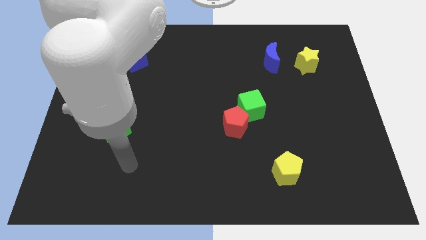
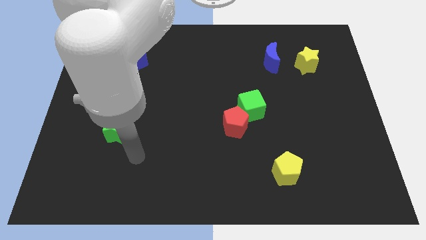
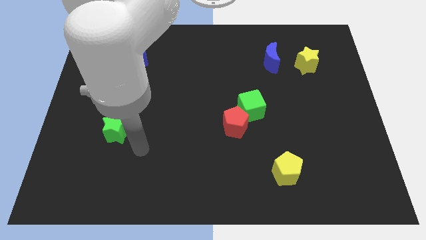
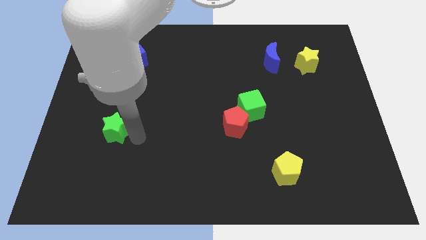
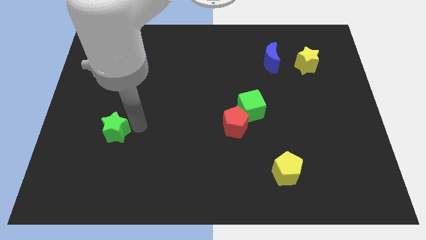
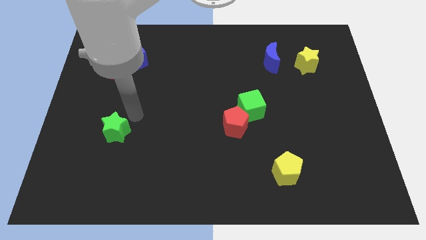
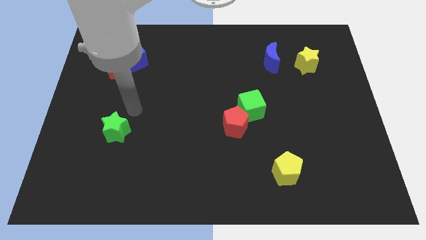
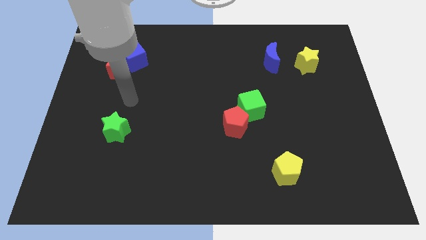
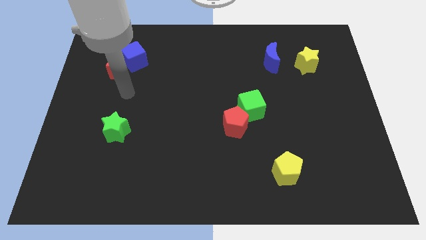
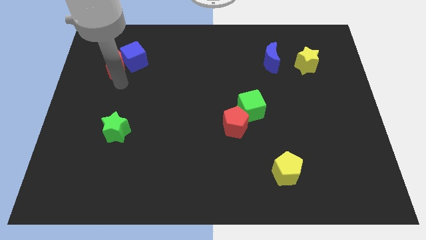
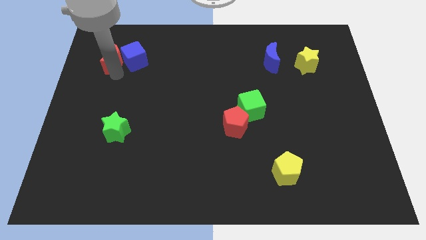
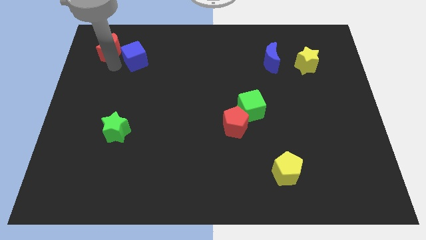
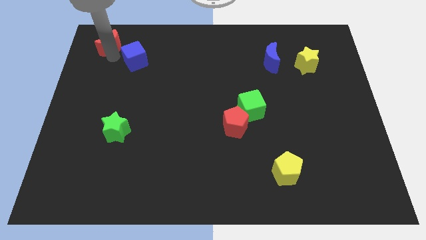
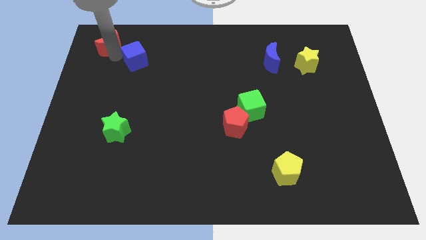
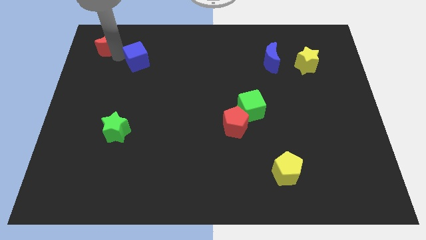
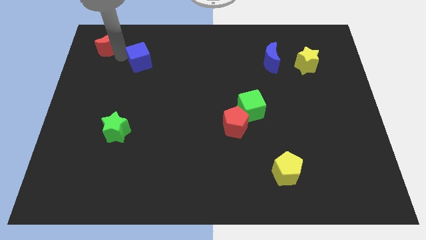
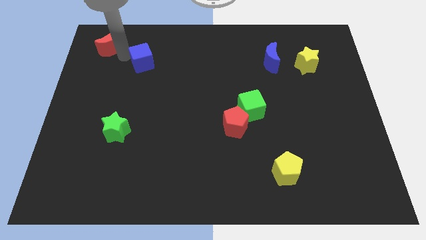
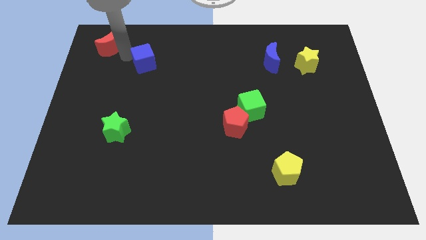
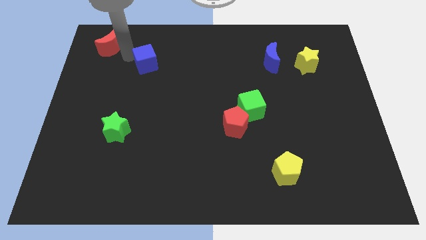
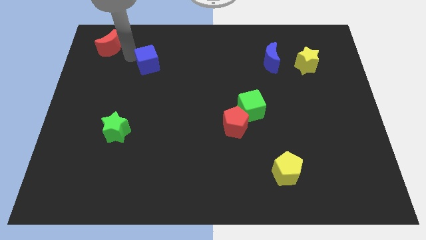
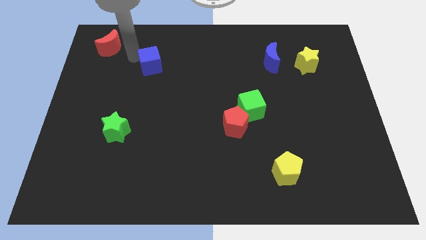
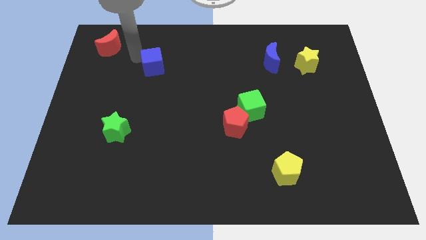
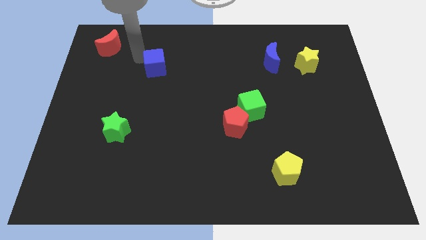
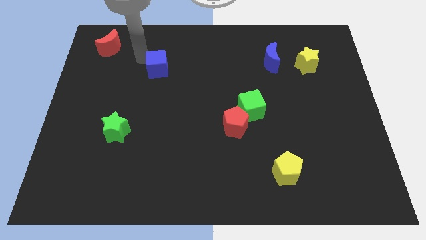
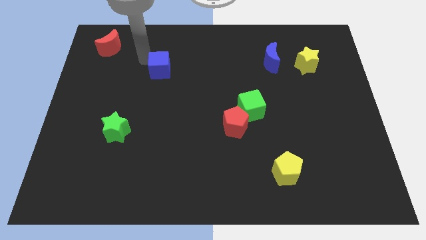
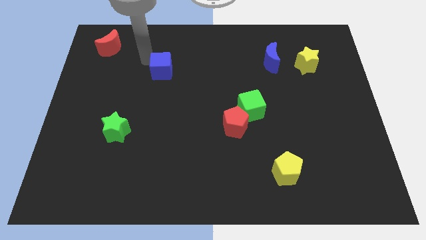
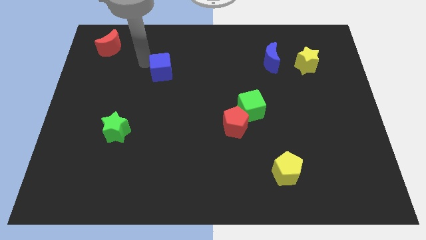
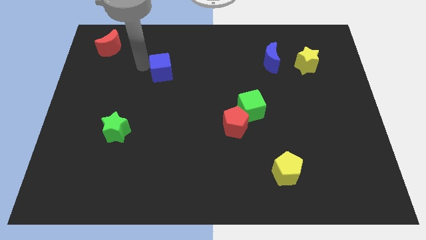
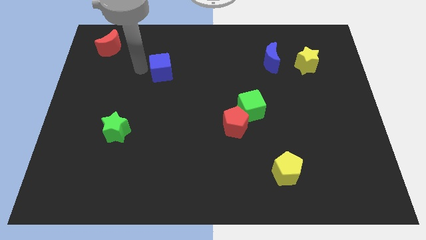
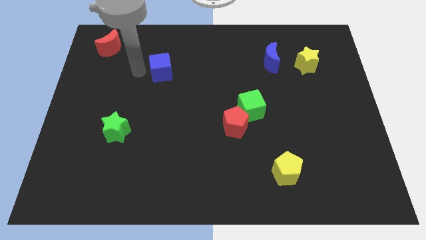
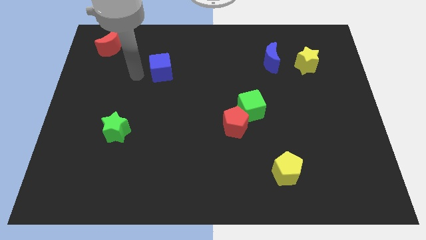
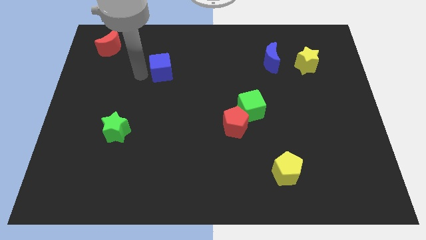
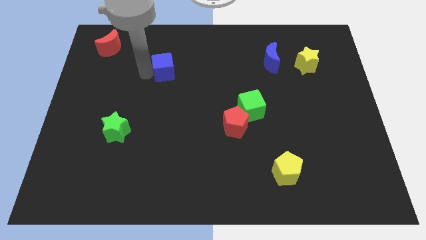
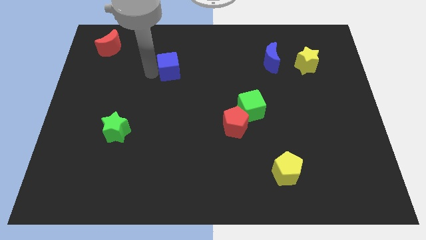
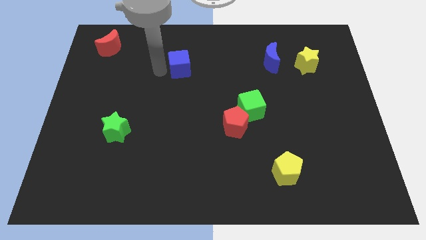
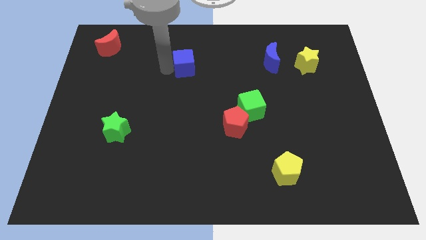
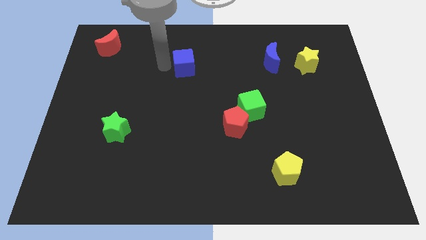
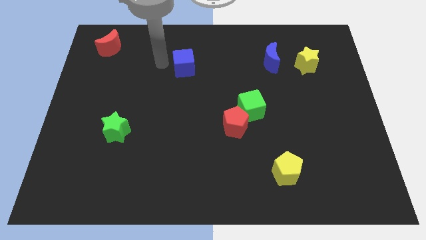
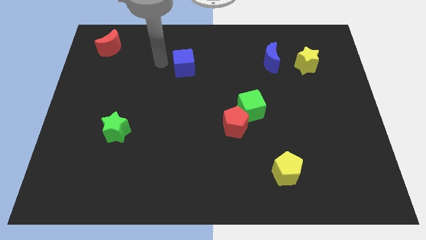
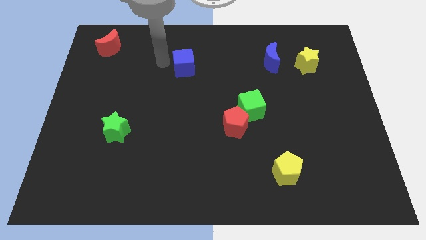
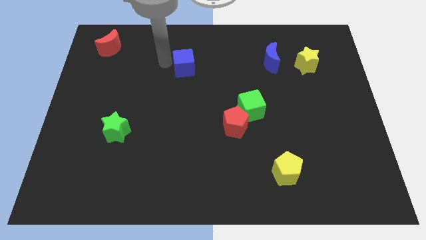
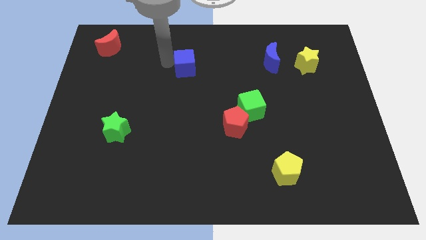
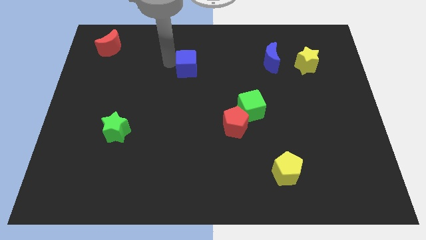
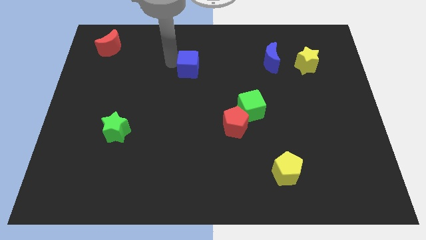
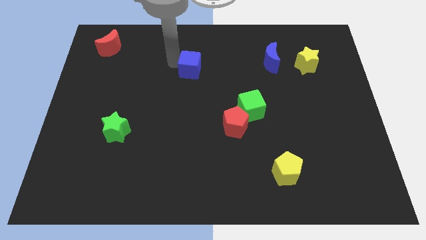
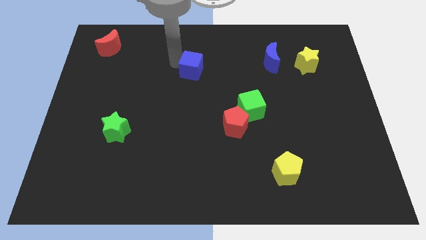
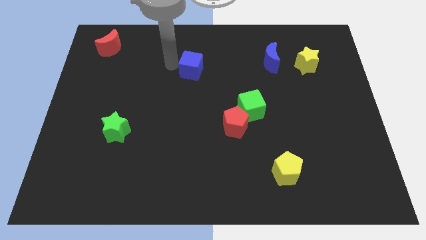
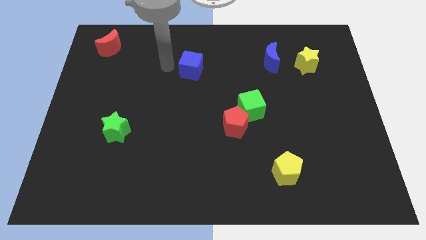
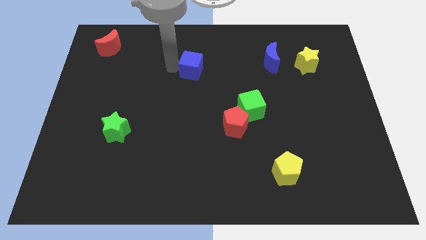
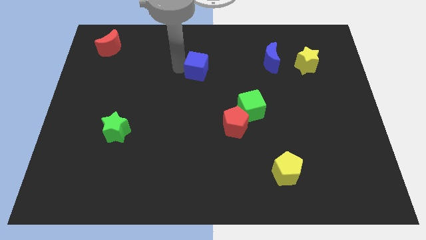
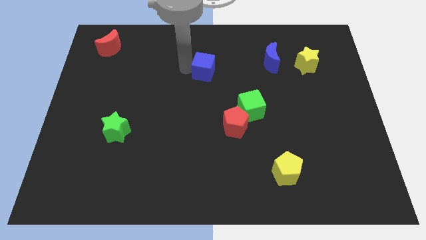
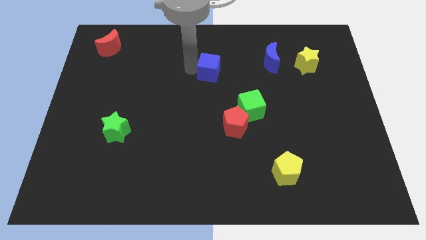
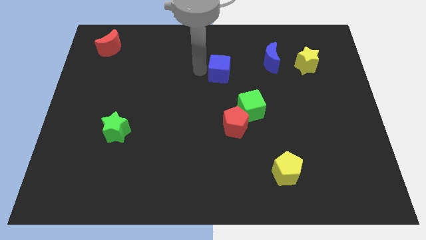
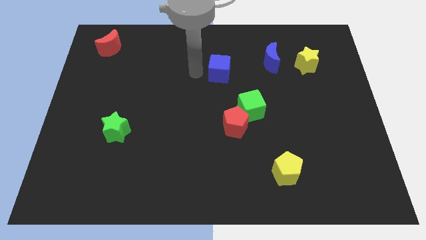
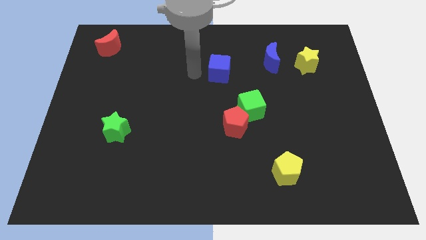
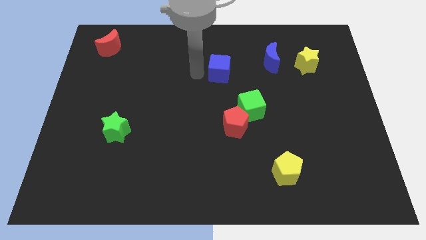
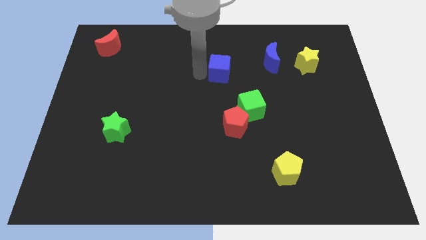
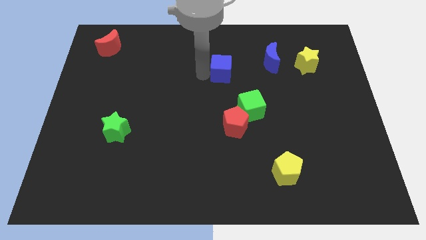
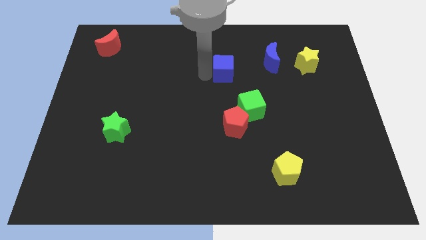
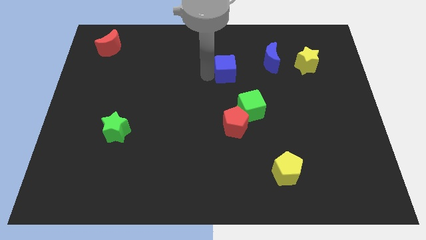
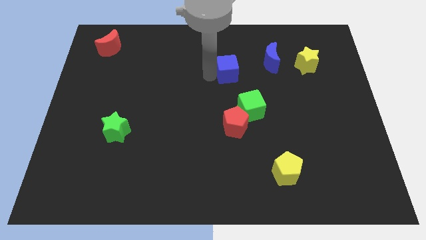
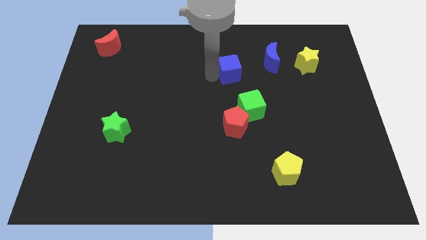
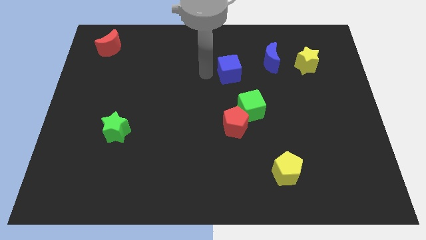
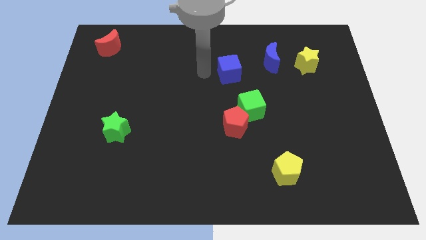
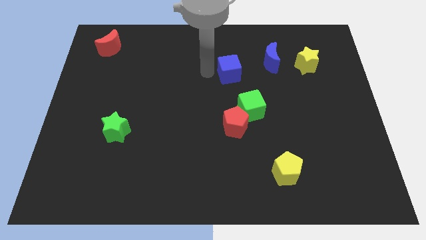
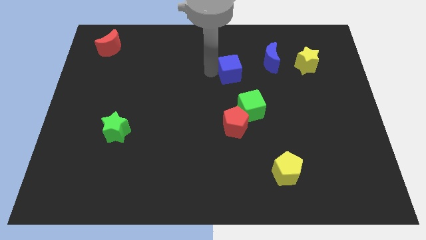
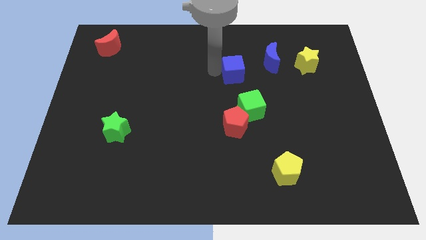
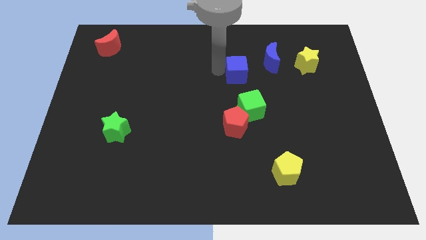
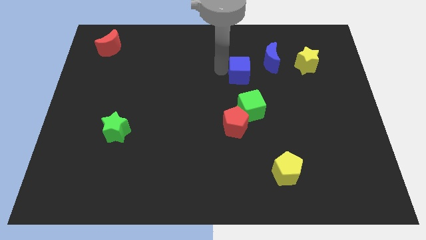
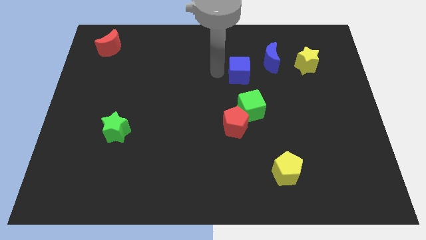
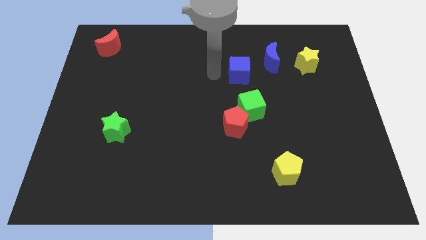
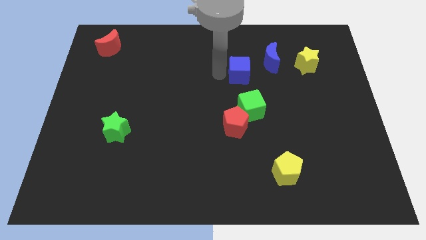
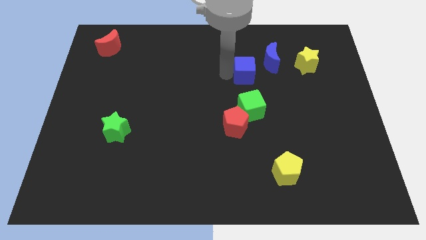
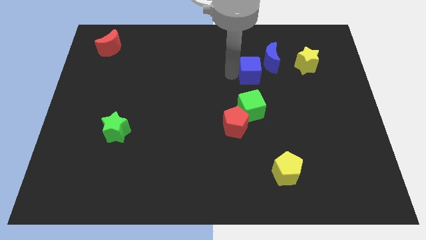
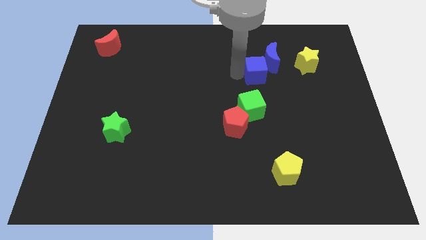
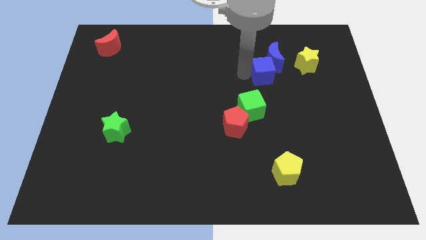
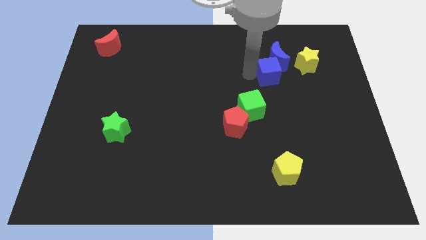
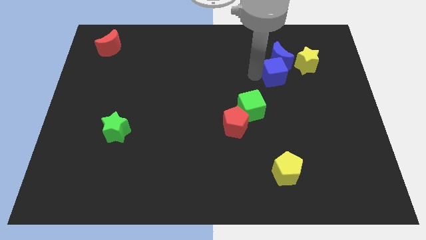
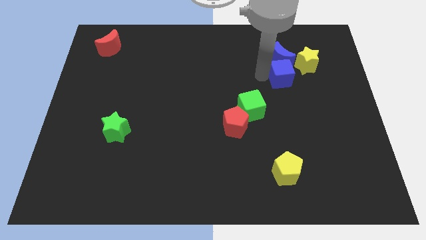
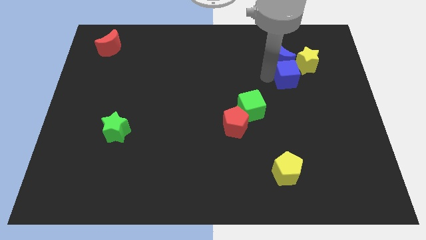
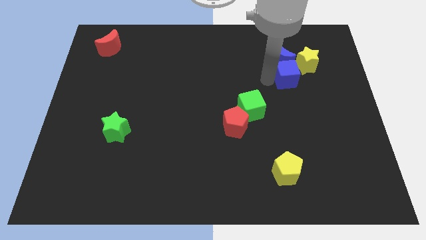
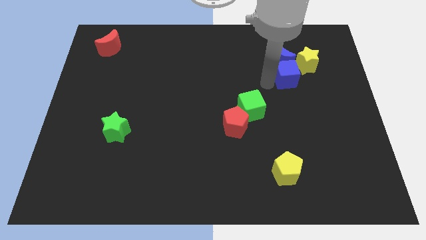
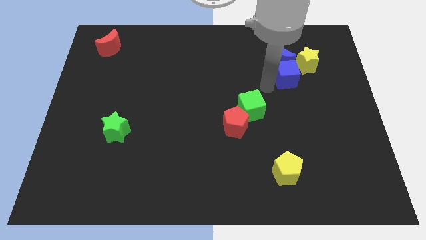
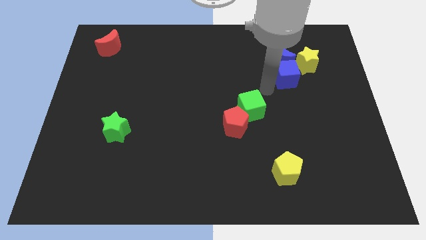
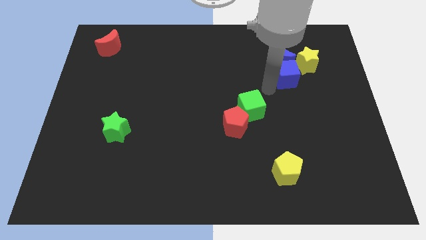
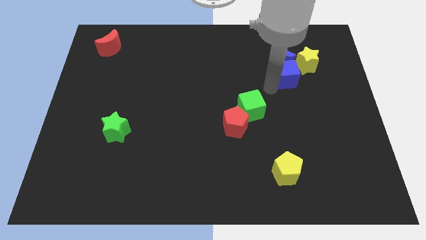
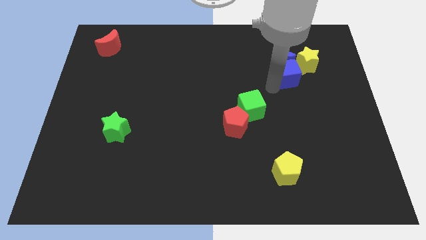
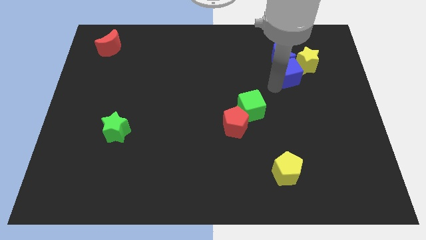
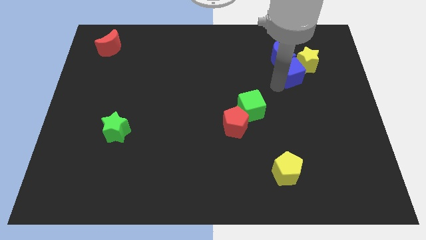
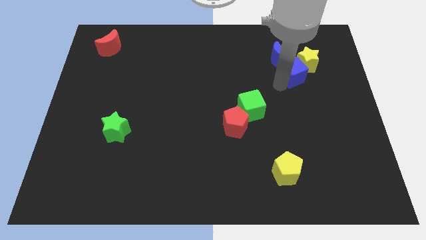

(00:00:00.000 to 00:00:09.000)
slide the blue cube to the yellow star
